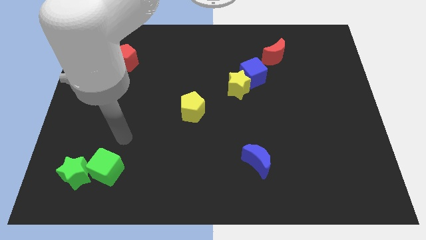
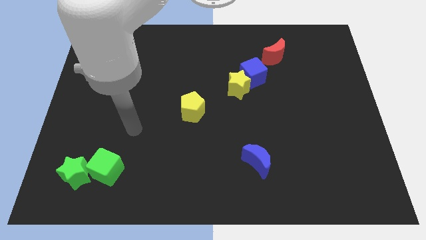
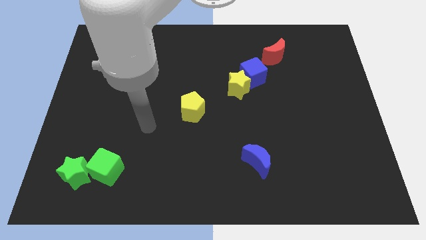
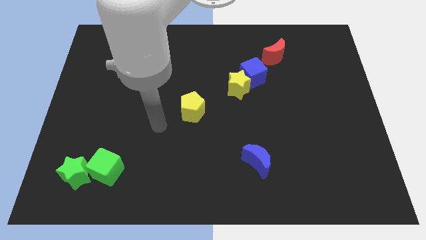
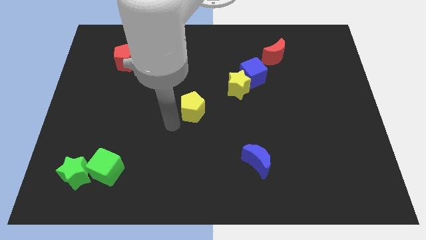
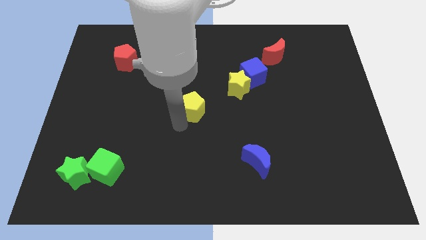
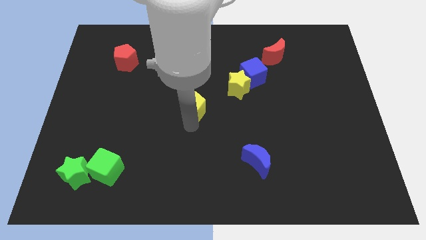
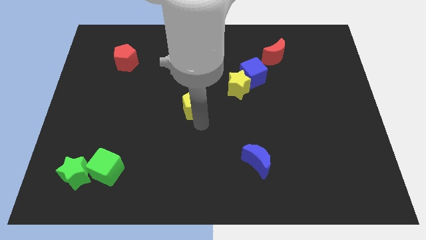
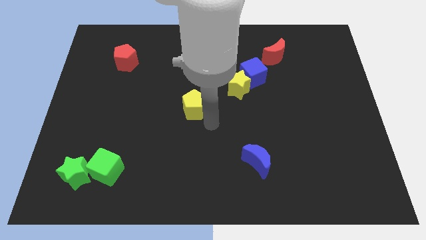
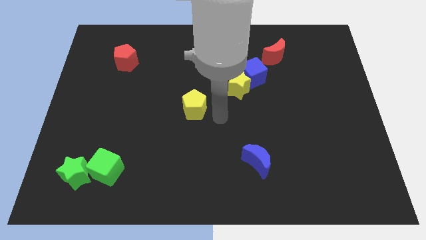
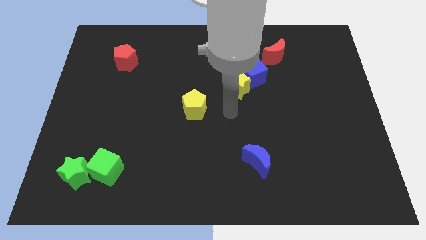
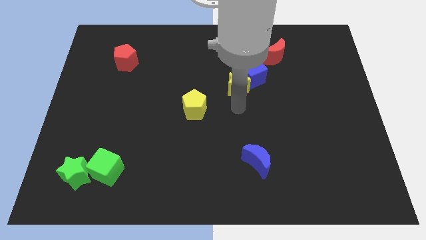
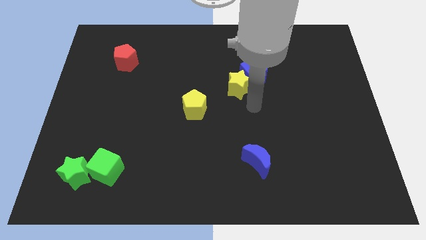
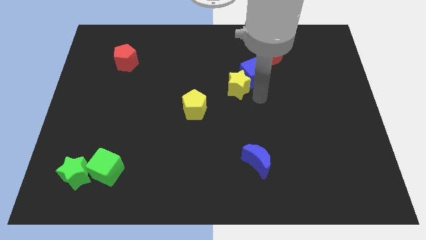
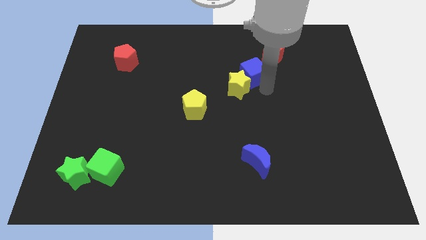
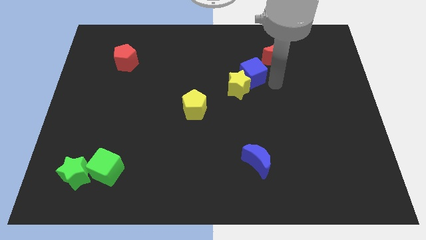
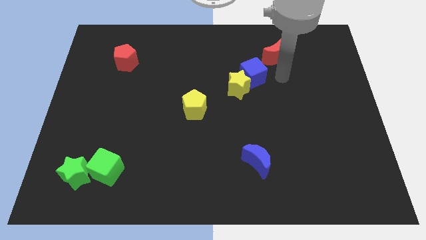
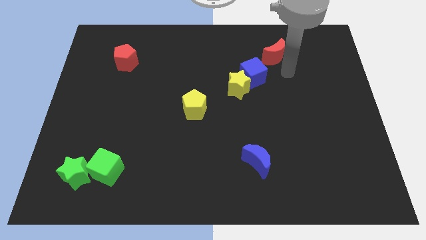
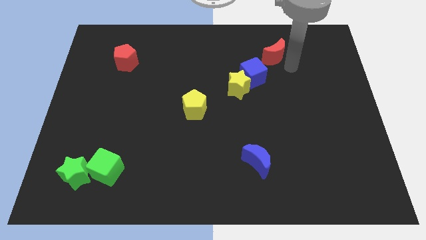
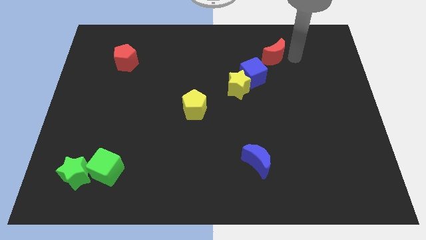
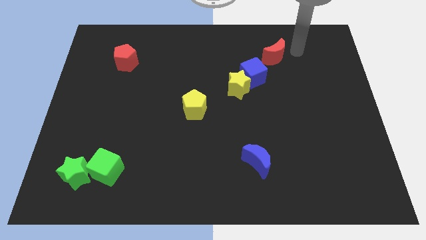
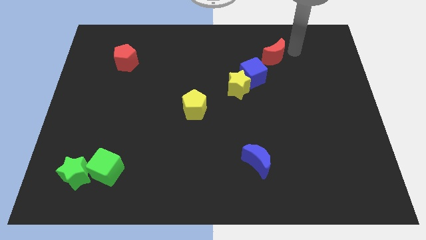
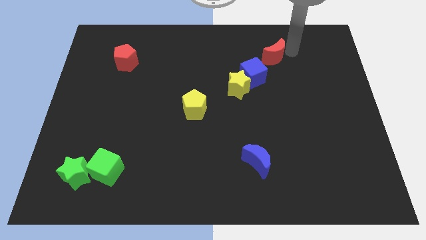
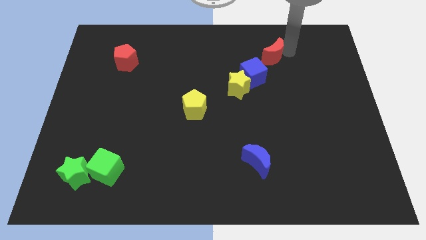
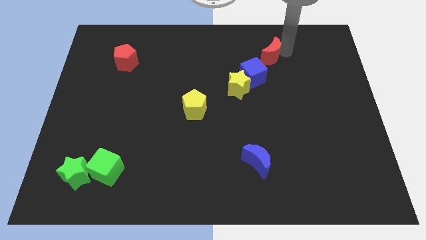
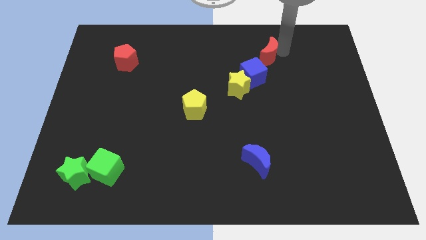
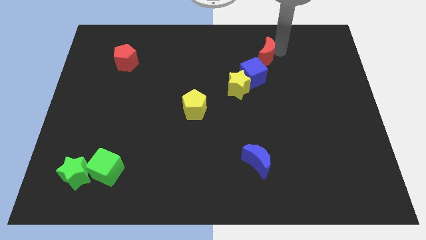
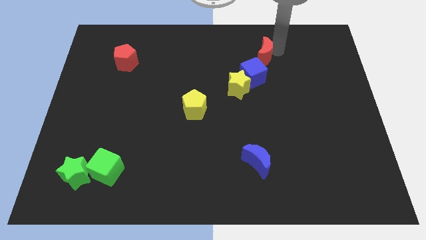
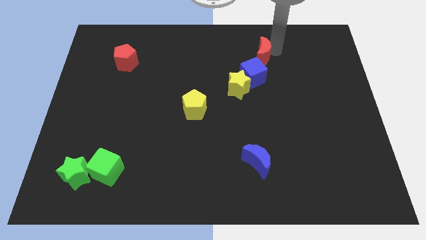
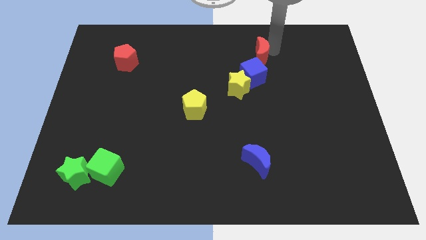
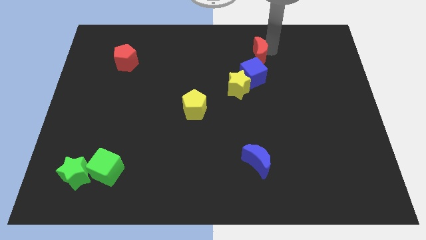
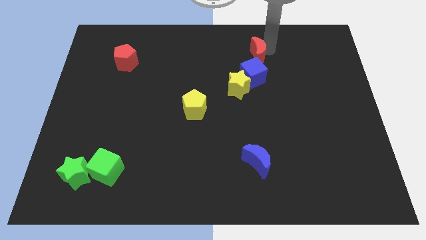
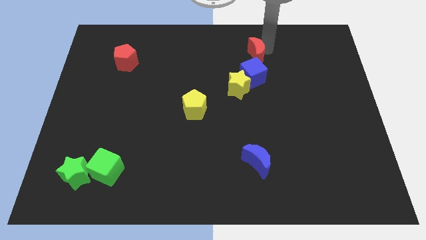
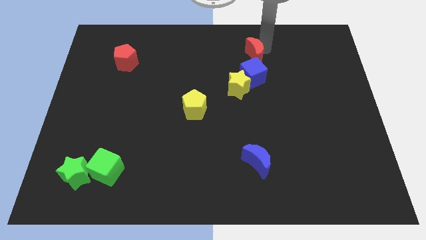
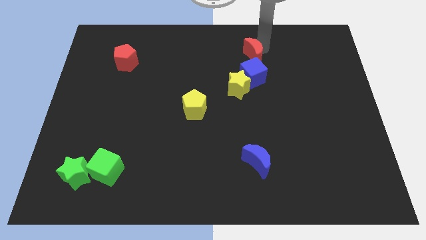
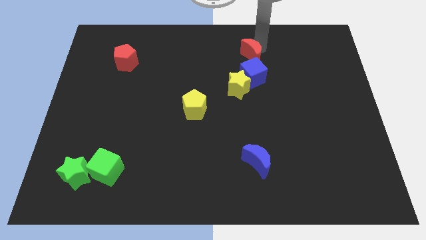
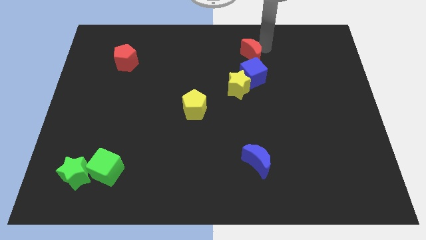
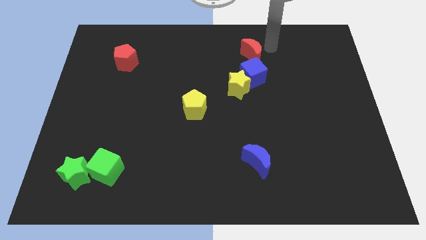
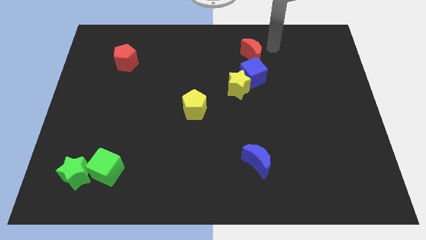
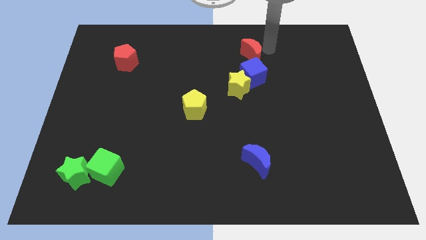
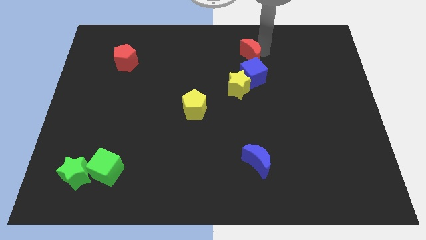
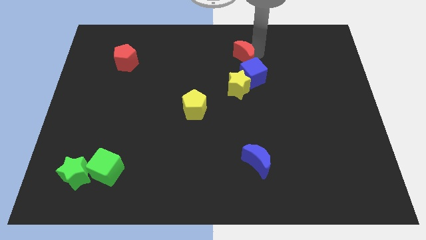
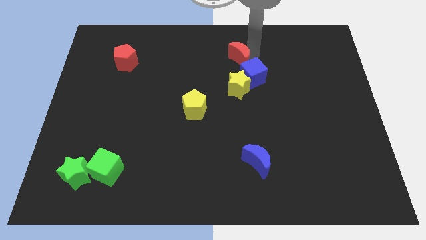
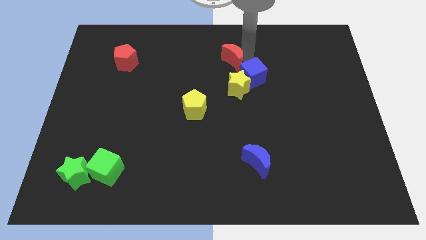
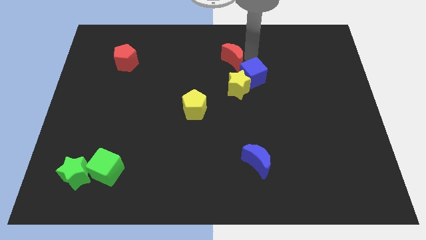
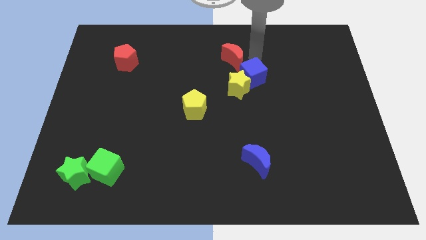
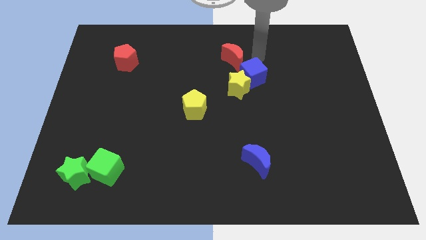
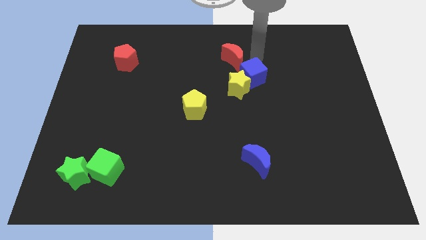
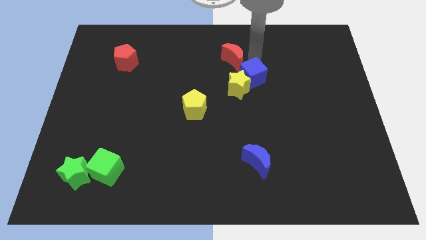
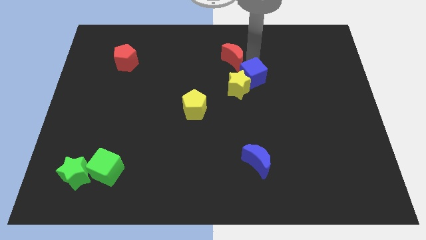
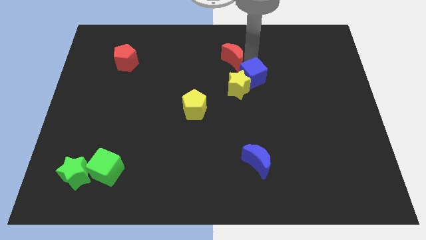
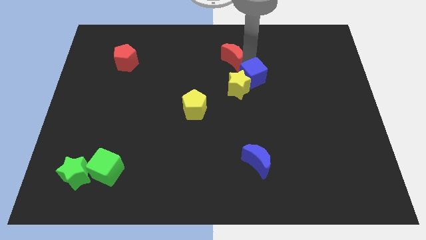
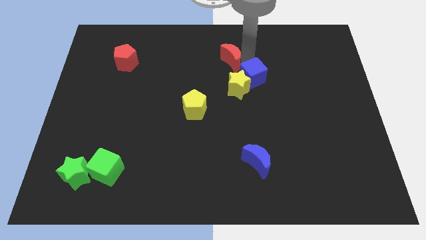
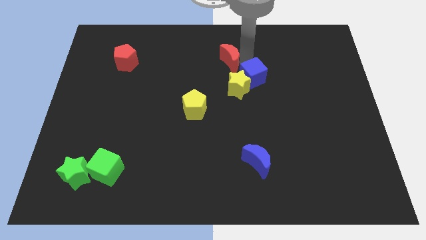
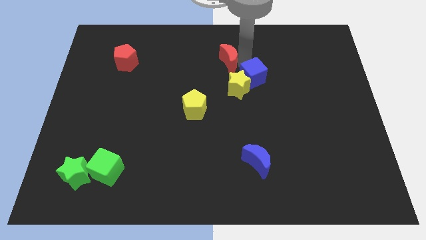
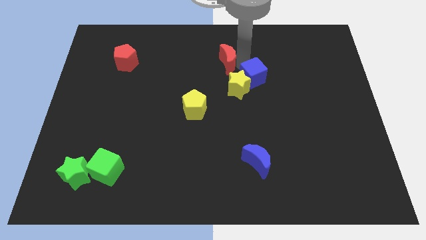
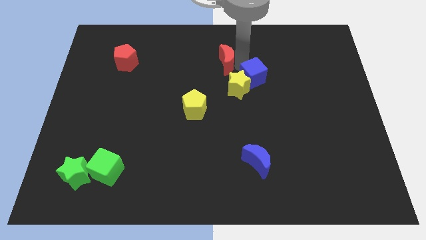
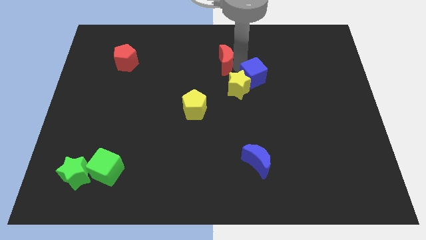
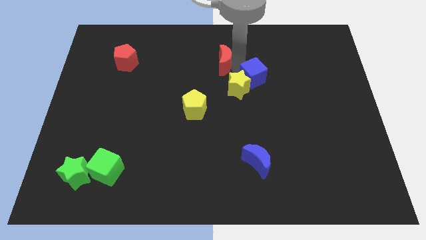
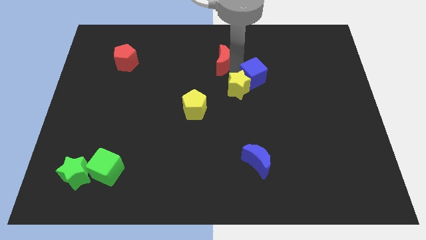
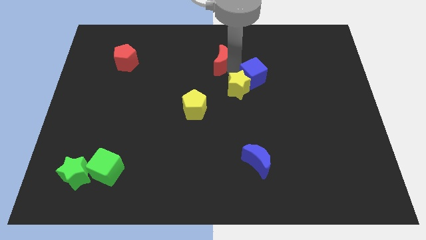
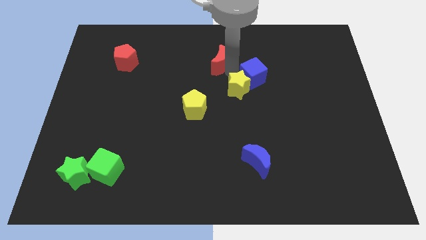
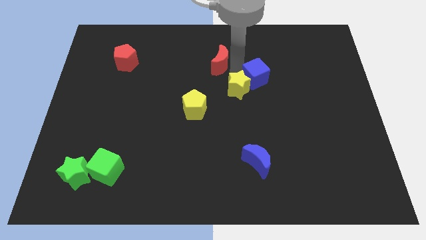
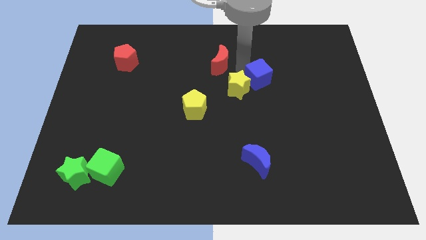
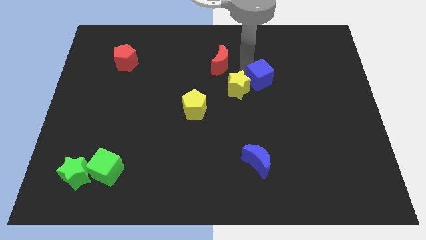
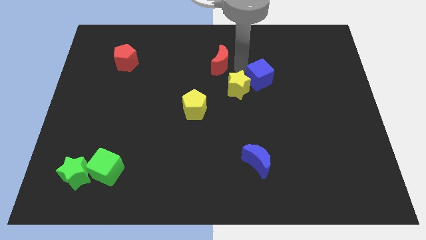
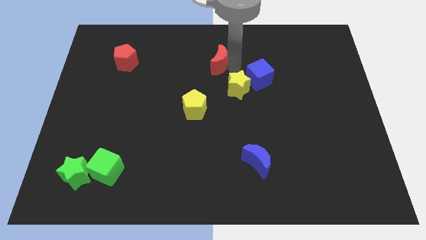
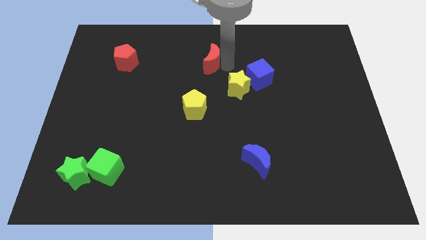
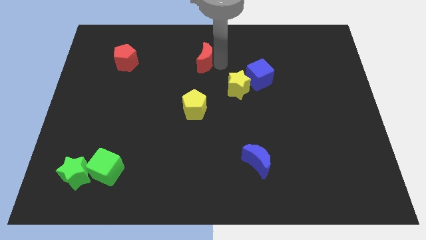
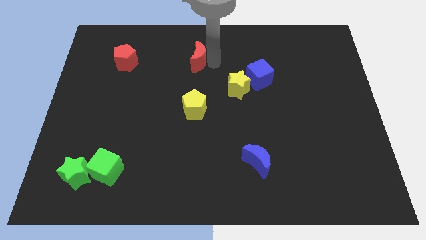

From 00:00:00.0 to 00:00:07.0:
push the red moon left

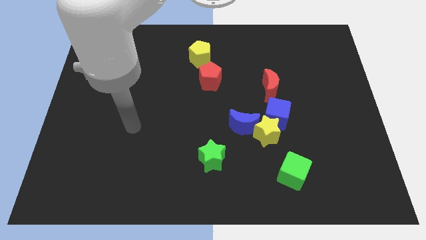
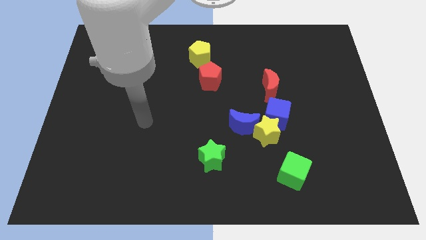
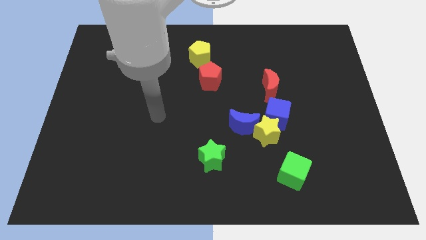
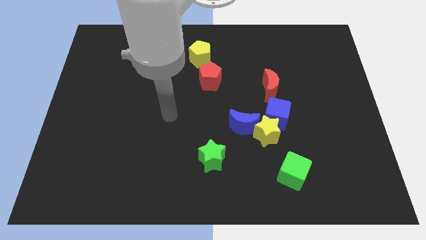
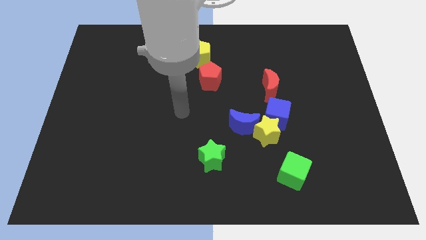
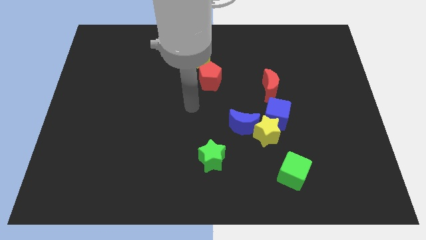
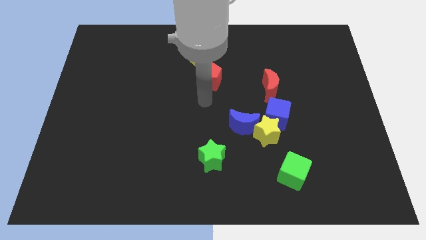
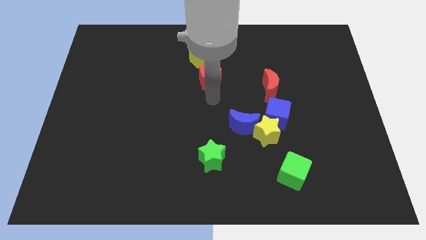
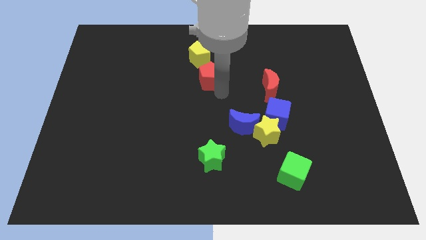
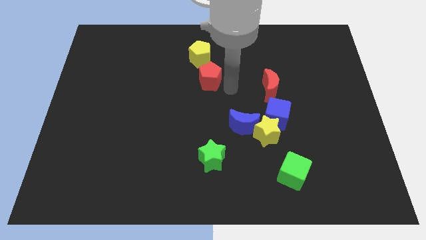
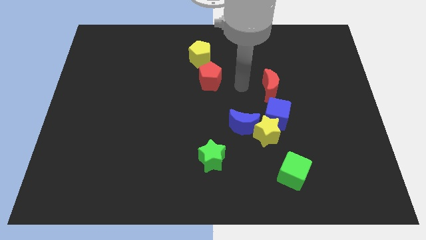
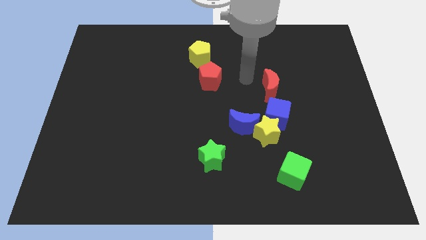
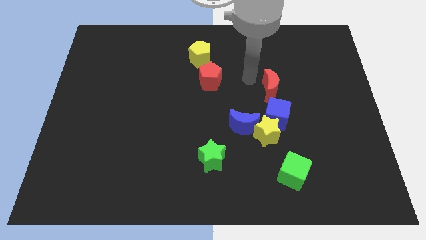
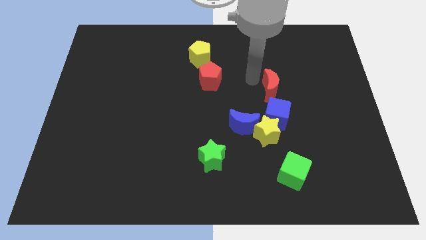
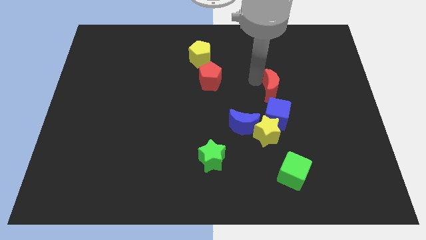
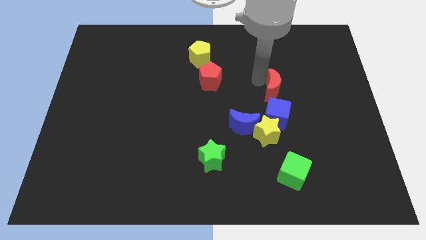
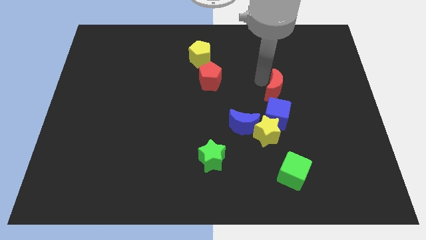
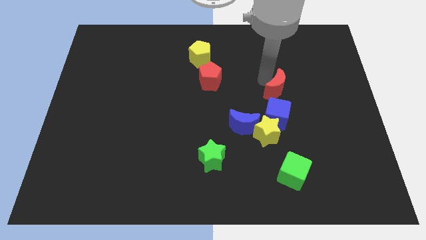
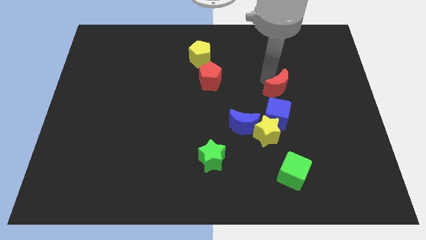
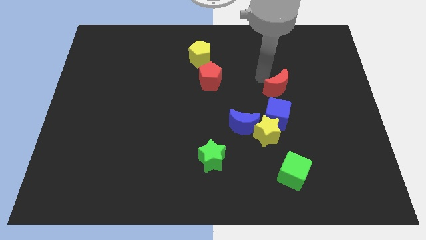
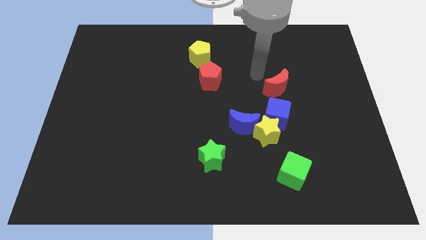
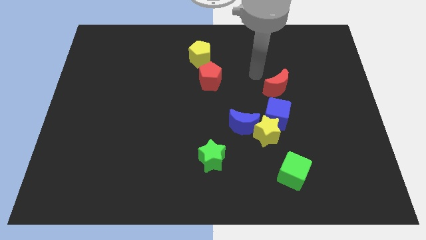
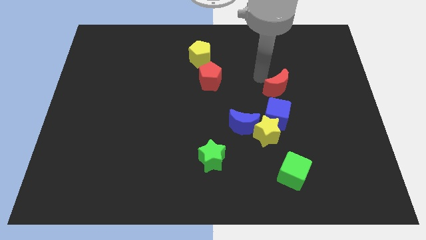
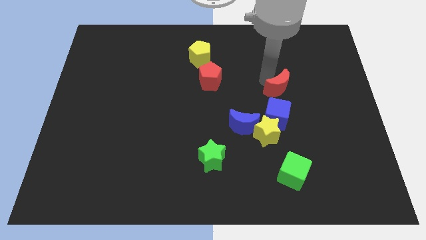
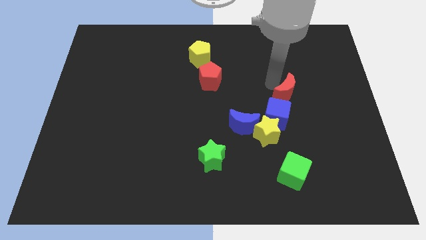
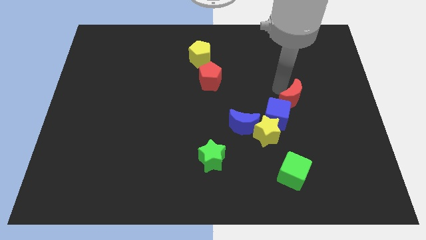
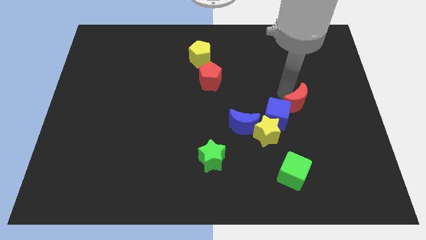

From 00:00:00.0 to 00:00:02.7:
slightly move the red moon down and to the right
